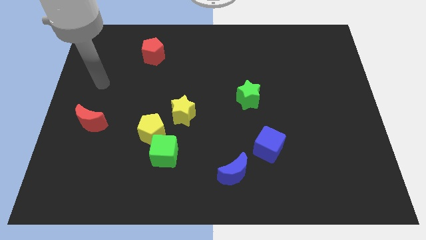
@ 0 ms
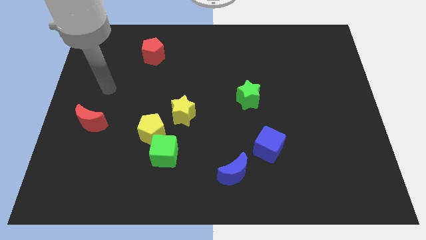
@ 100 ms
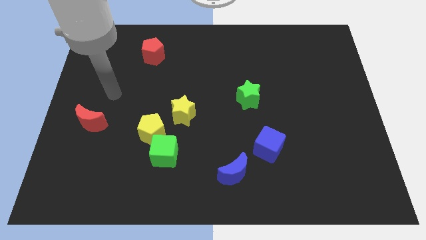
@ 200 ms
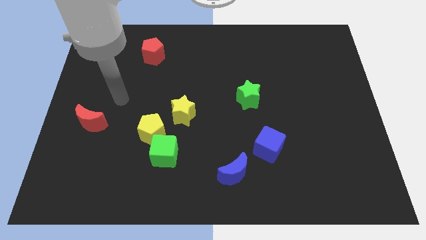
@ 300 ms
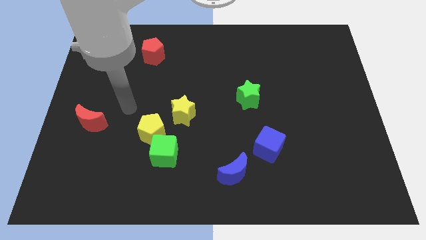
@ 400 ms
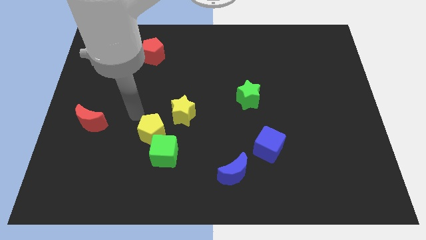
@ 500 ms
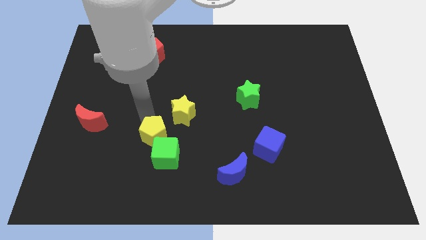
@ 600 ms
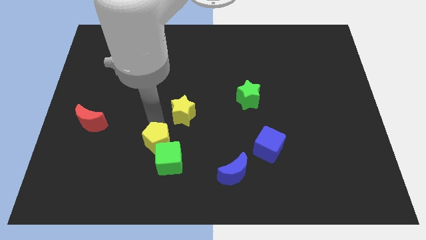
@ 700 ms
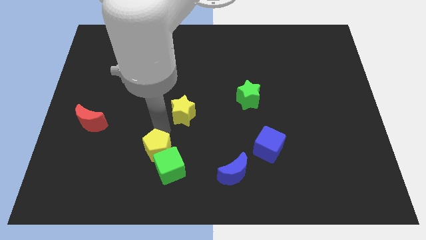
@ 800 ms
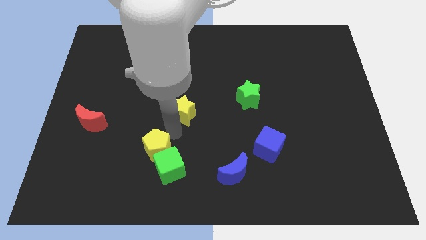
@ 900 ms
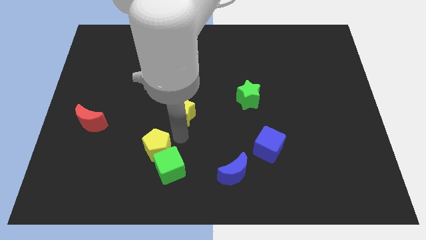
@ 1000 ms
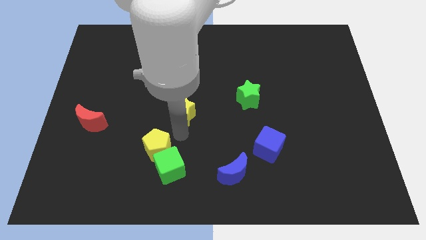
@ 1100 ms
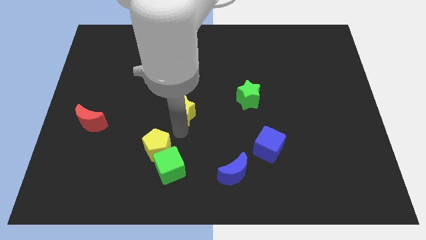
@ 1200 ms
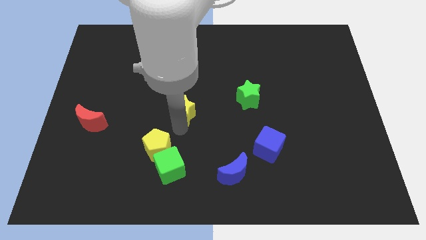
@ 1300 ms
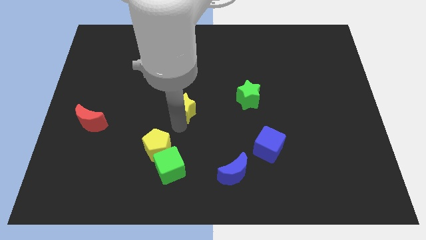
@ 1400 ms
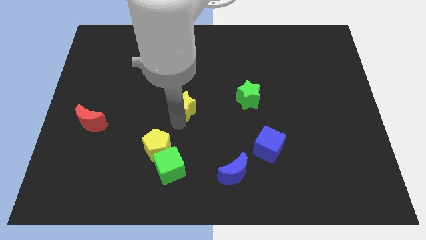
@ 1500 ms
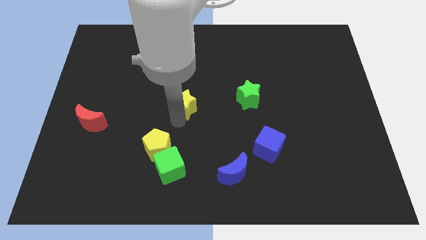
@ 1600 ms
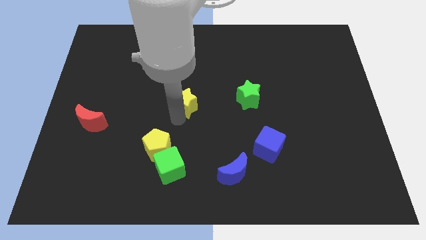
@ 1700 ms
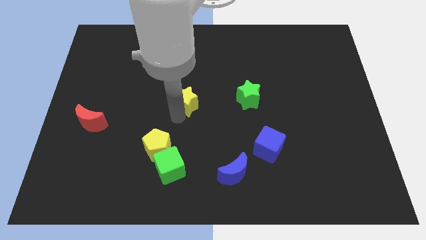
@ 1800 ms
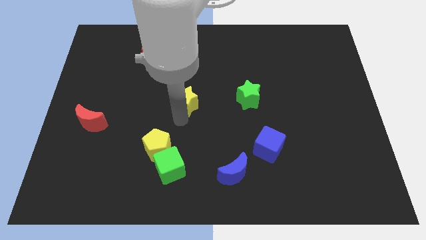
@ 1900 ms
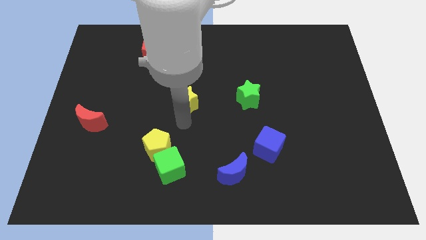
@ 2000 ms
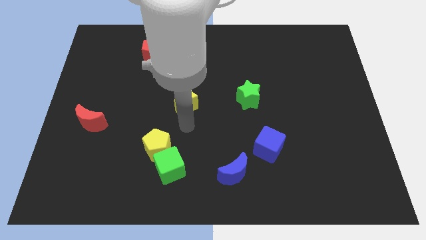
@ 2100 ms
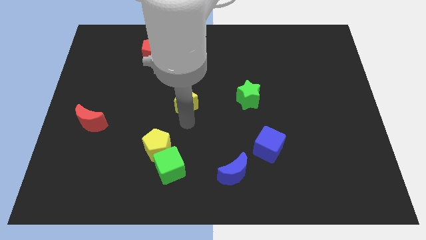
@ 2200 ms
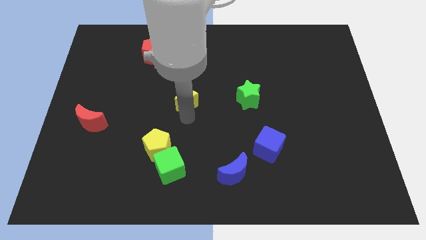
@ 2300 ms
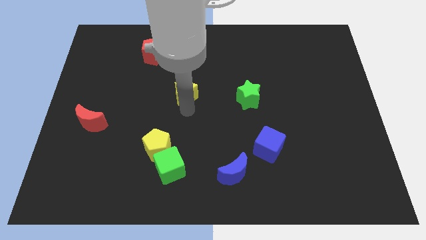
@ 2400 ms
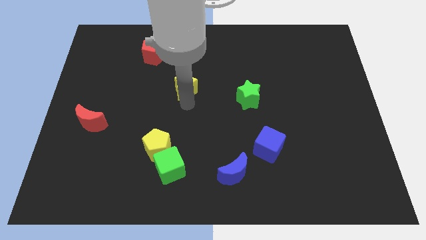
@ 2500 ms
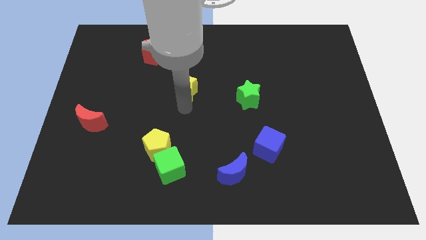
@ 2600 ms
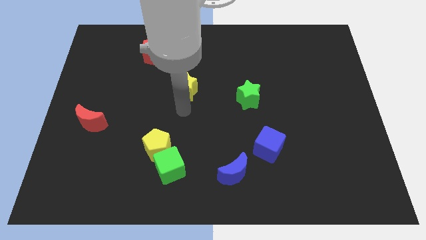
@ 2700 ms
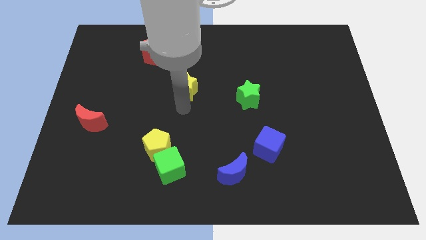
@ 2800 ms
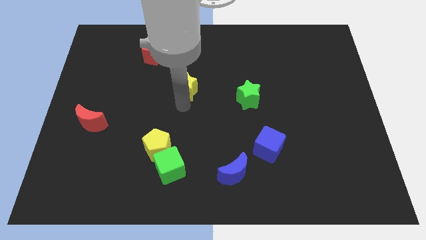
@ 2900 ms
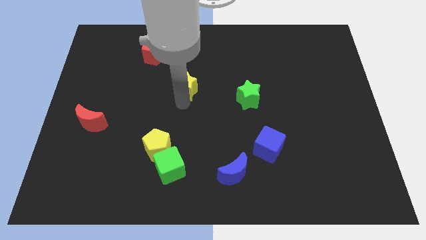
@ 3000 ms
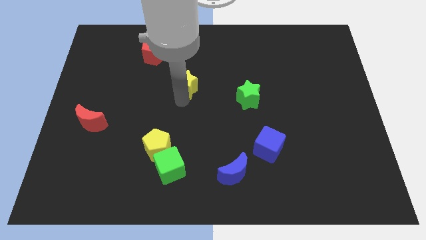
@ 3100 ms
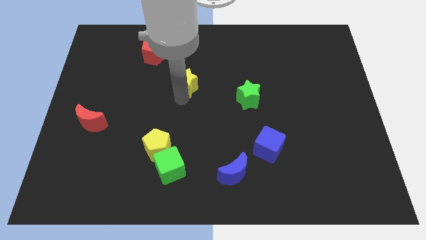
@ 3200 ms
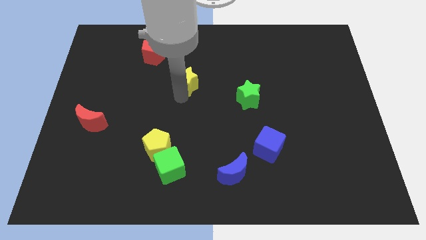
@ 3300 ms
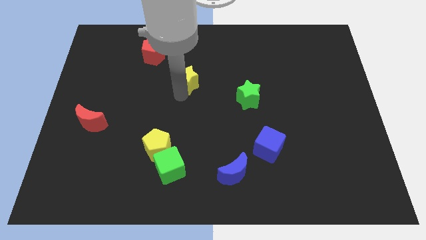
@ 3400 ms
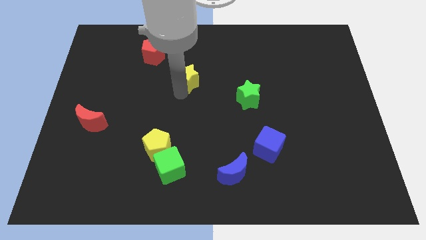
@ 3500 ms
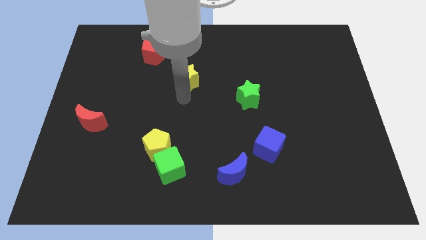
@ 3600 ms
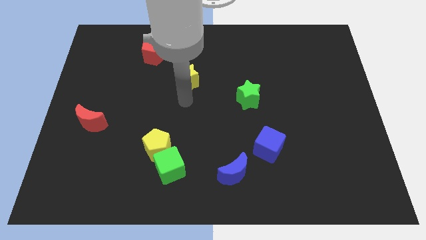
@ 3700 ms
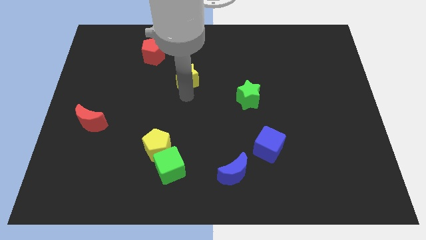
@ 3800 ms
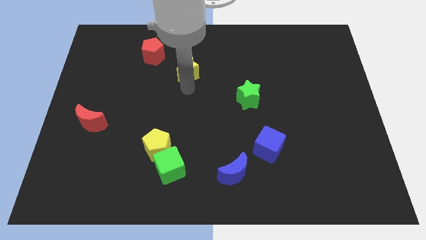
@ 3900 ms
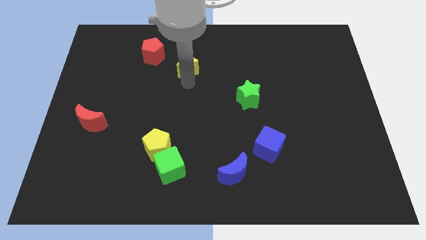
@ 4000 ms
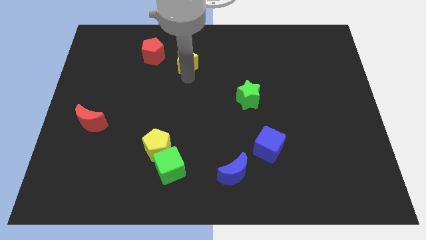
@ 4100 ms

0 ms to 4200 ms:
push the yellow star to the right side of the red pentagon

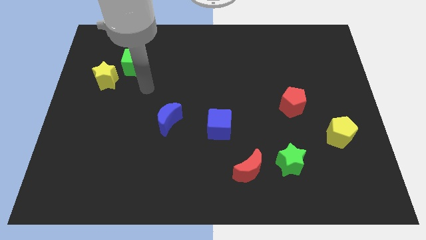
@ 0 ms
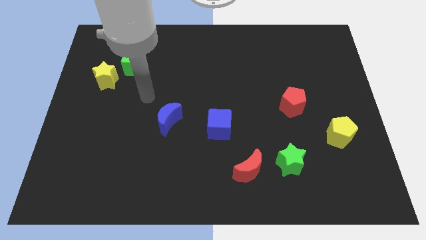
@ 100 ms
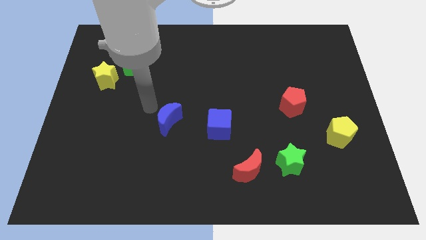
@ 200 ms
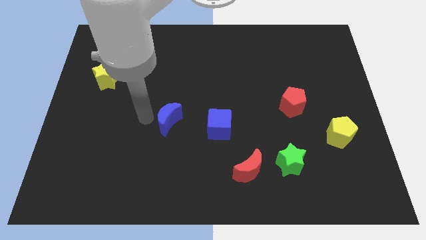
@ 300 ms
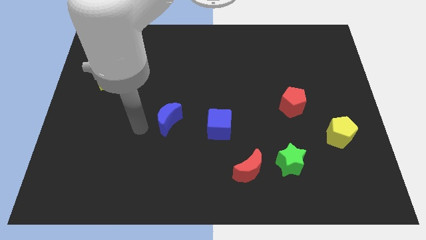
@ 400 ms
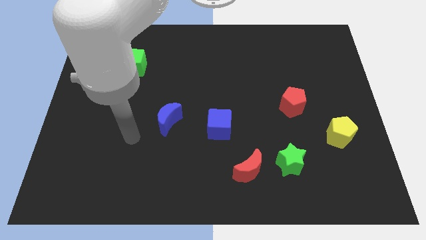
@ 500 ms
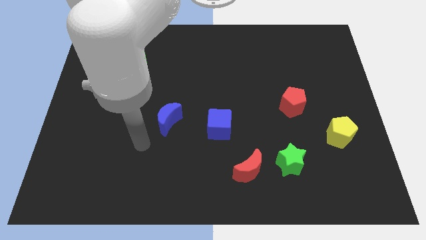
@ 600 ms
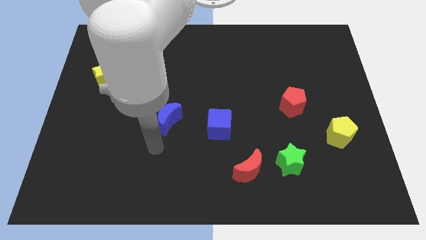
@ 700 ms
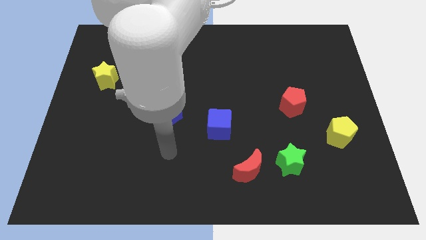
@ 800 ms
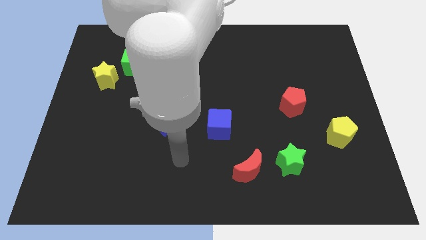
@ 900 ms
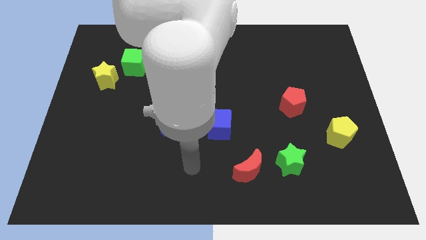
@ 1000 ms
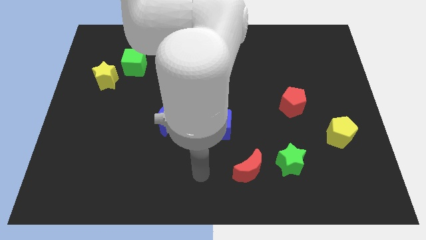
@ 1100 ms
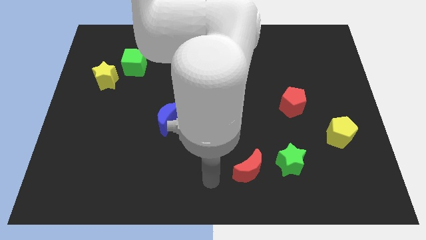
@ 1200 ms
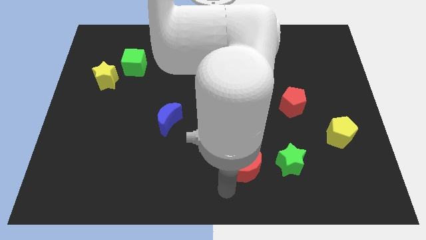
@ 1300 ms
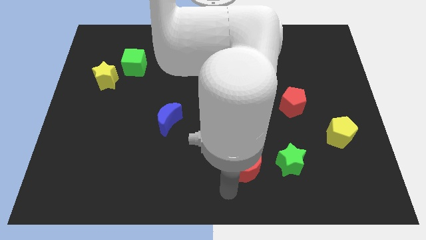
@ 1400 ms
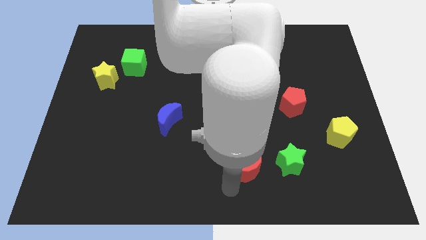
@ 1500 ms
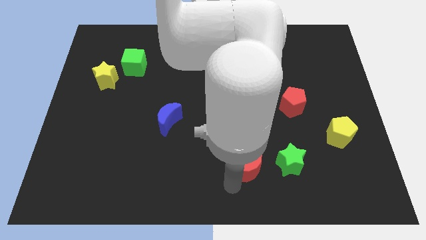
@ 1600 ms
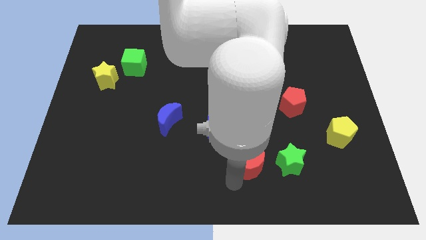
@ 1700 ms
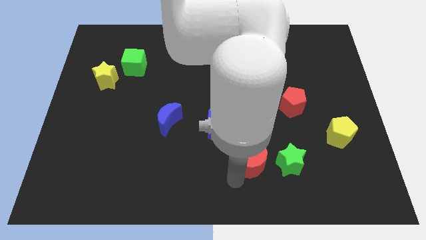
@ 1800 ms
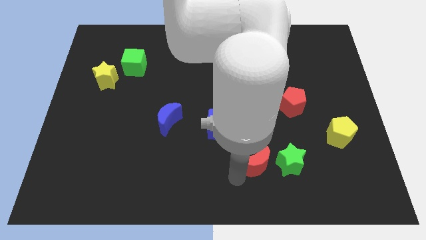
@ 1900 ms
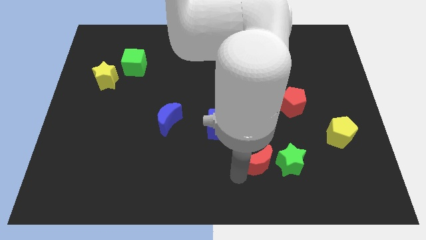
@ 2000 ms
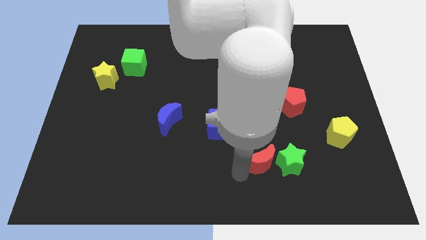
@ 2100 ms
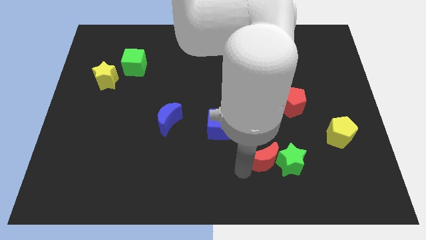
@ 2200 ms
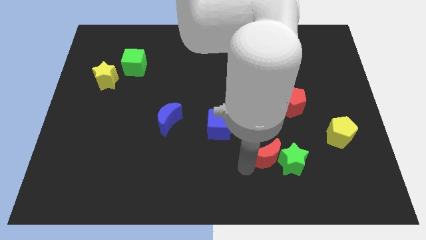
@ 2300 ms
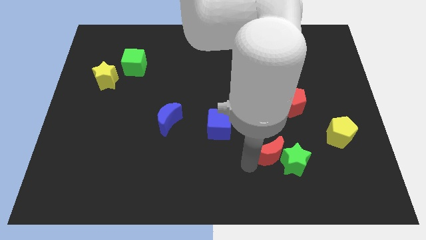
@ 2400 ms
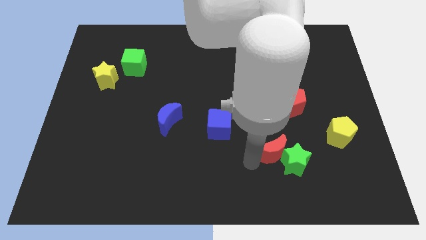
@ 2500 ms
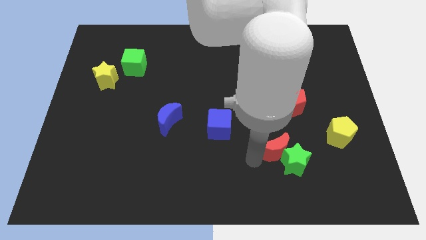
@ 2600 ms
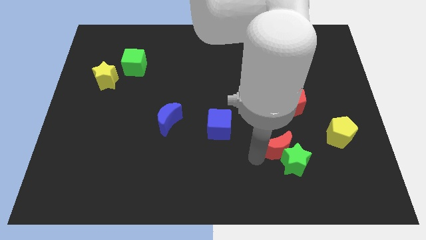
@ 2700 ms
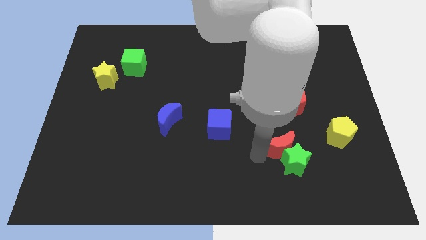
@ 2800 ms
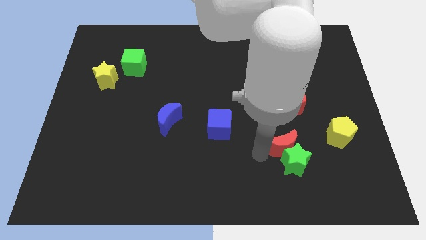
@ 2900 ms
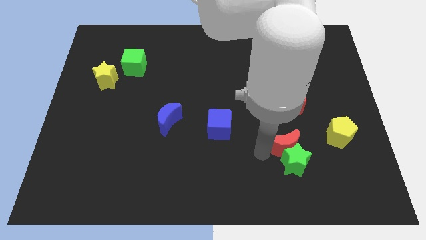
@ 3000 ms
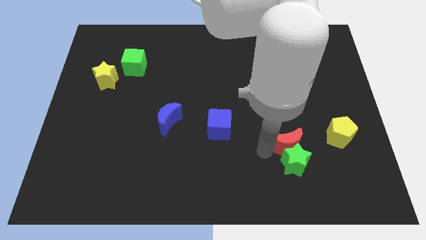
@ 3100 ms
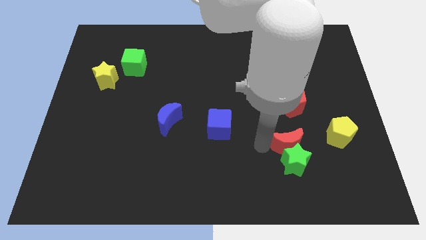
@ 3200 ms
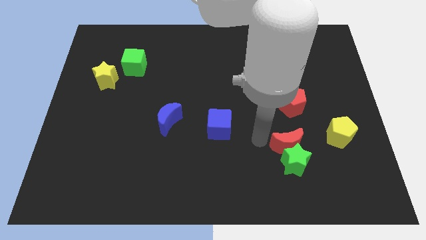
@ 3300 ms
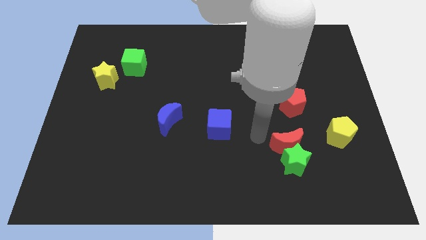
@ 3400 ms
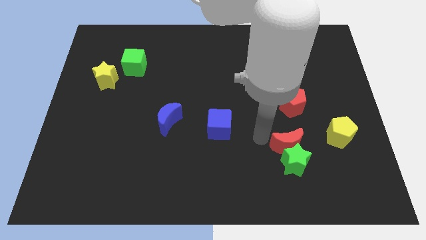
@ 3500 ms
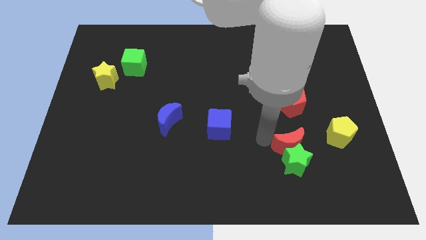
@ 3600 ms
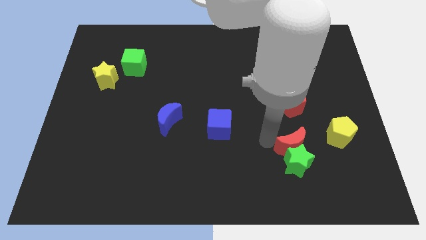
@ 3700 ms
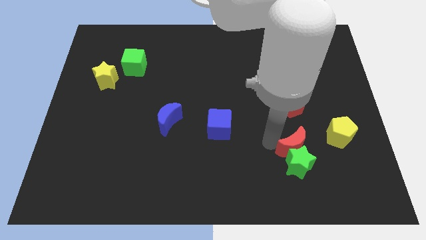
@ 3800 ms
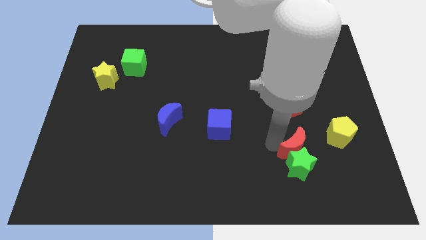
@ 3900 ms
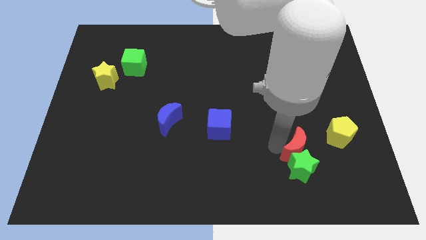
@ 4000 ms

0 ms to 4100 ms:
slide the red moon diagonally down and to the left of the yellow pentagon
